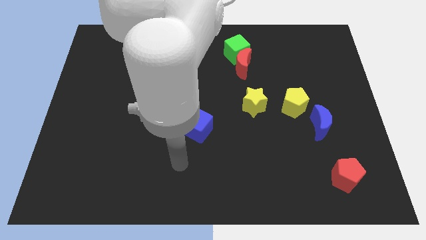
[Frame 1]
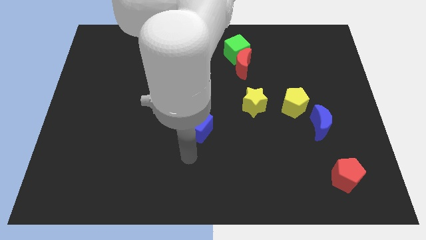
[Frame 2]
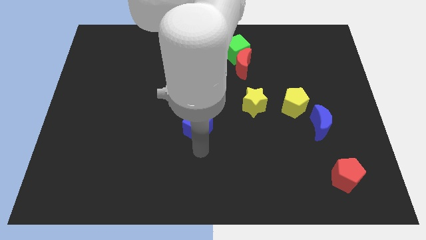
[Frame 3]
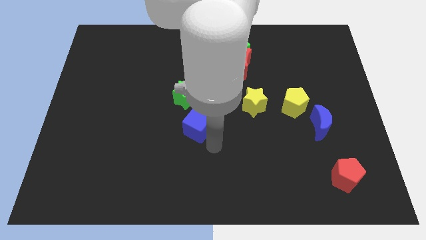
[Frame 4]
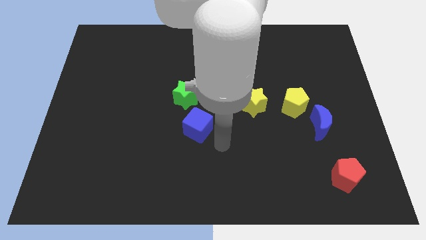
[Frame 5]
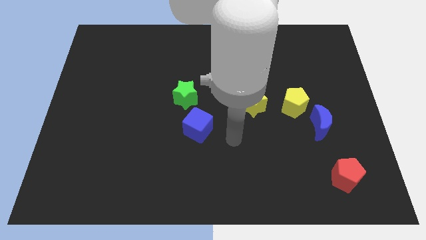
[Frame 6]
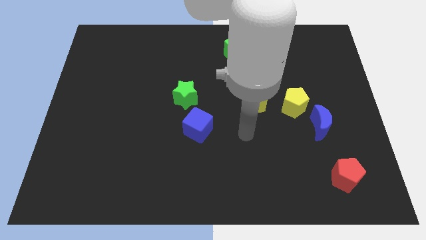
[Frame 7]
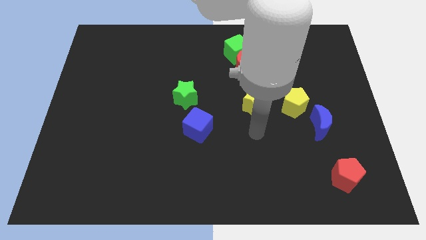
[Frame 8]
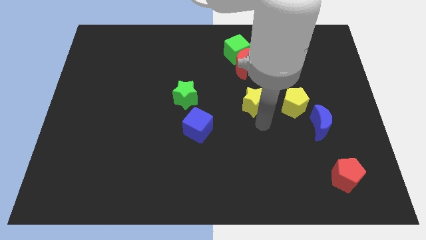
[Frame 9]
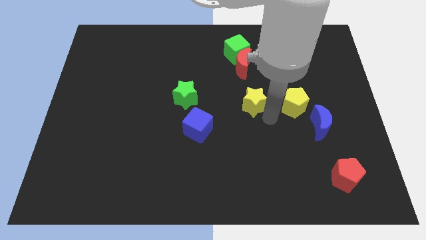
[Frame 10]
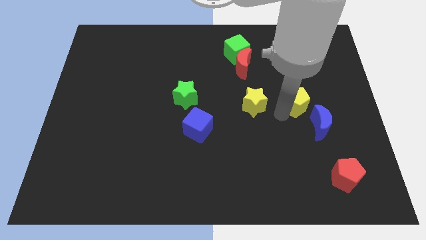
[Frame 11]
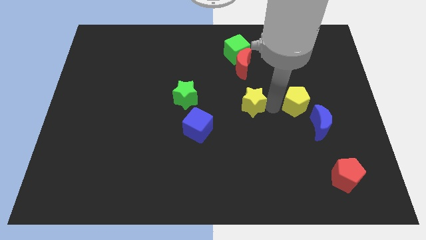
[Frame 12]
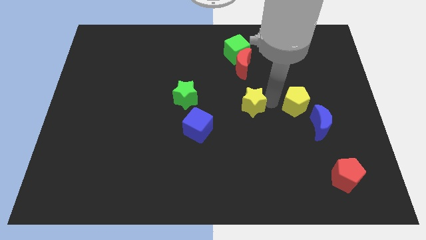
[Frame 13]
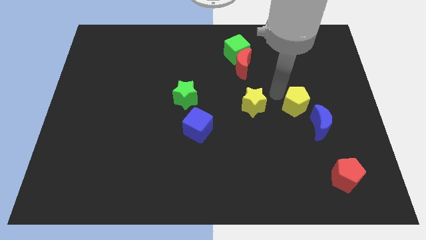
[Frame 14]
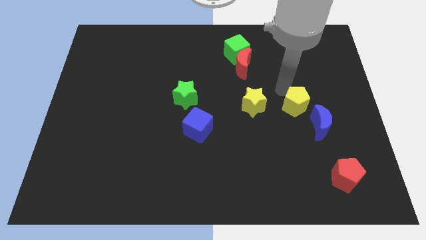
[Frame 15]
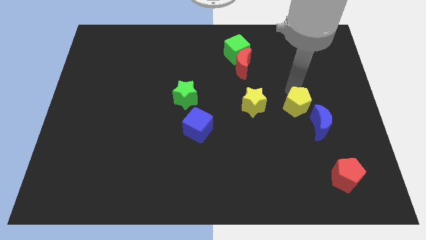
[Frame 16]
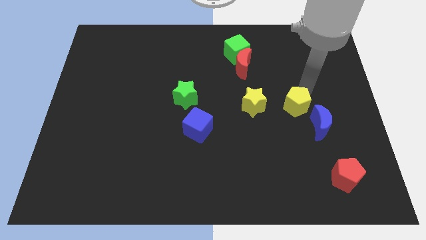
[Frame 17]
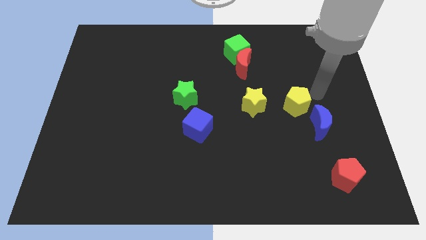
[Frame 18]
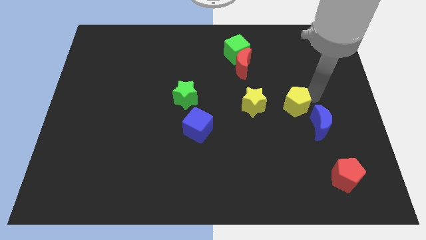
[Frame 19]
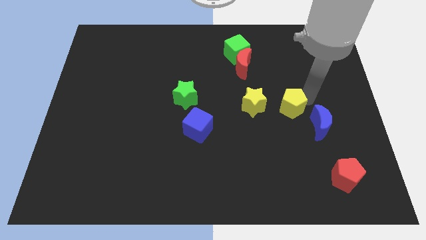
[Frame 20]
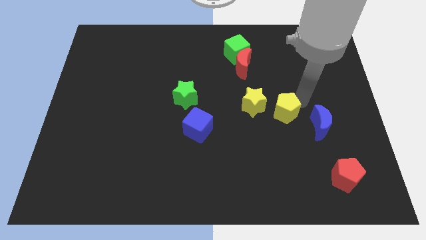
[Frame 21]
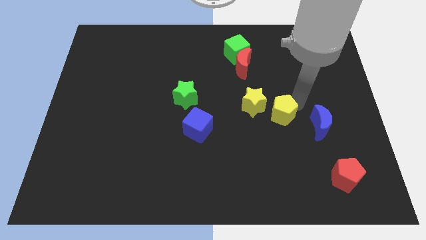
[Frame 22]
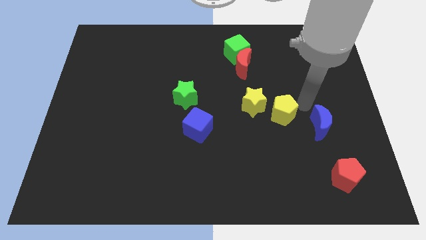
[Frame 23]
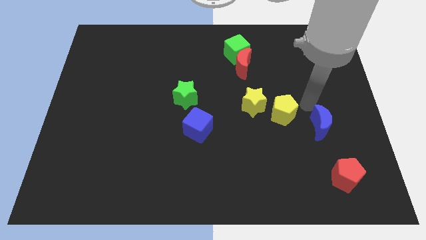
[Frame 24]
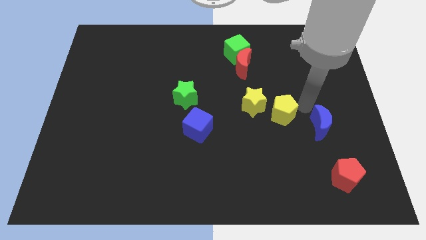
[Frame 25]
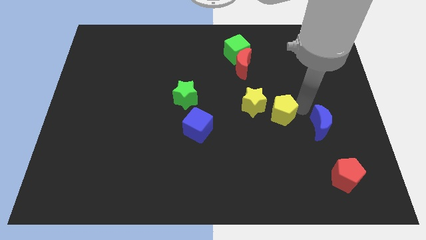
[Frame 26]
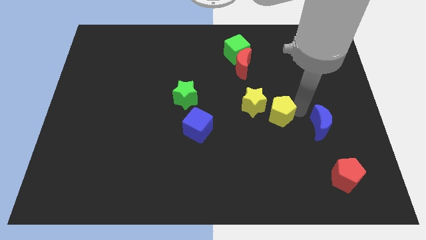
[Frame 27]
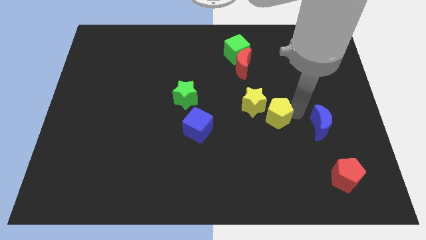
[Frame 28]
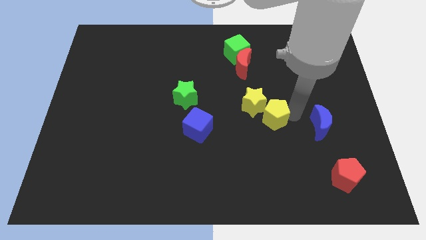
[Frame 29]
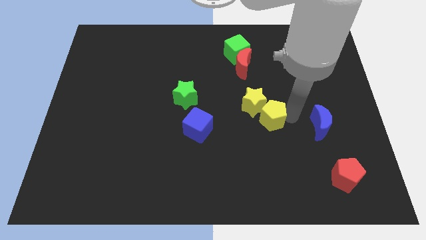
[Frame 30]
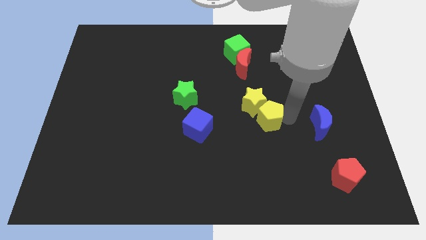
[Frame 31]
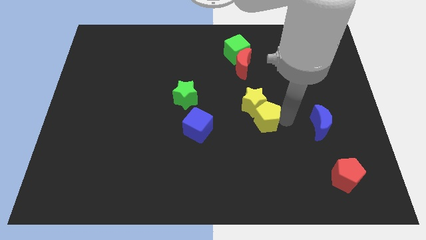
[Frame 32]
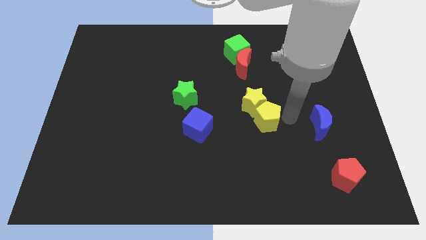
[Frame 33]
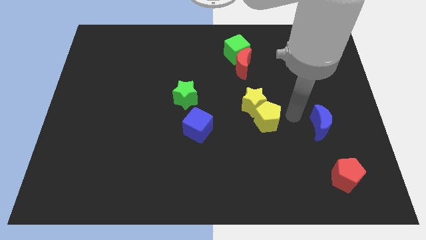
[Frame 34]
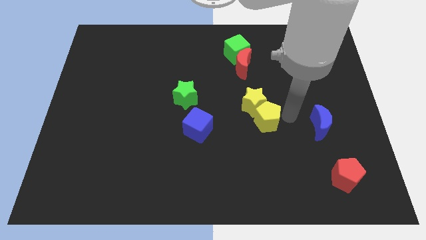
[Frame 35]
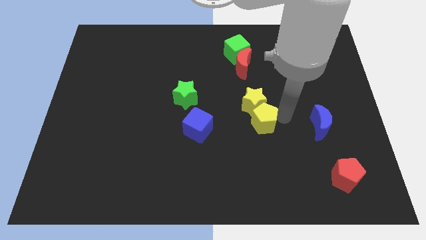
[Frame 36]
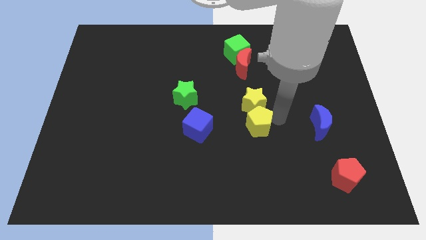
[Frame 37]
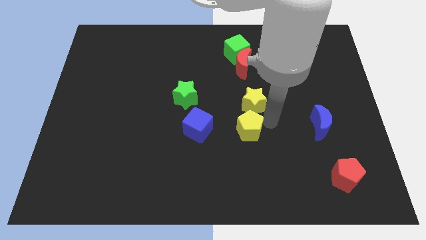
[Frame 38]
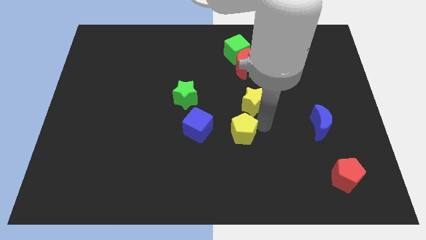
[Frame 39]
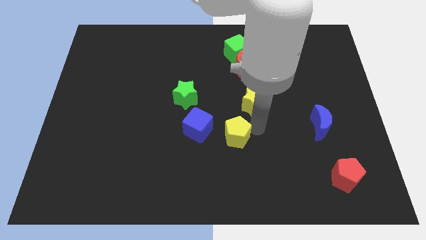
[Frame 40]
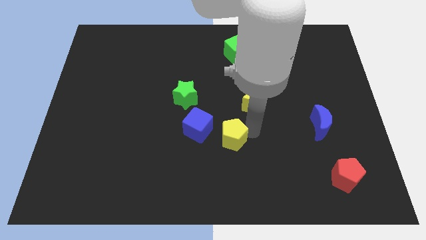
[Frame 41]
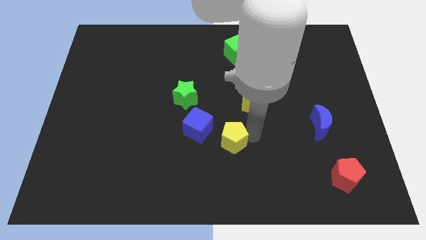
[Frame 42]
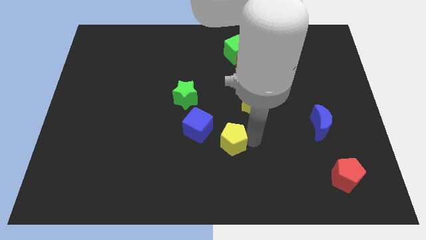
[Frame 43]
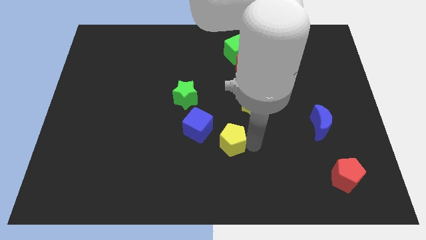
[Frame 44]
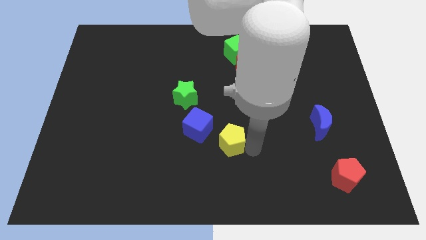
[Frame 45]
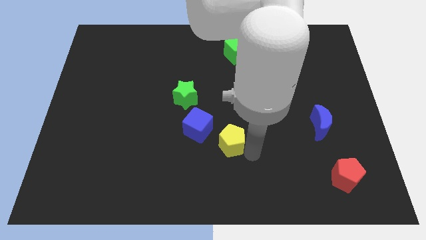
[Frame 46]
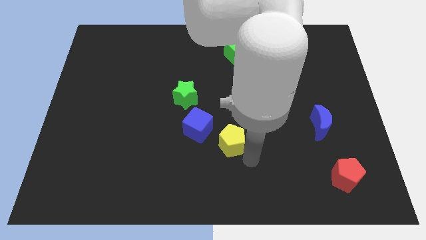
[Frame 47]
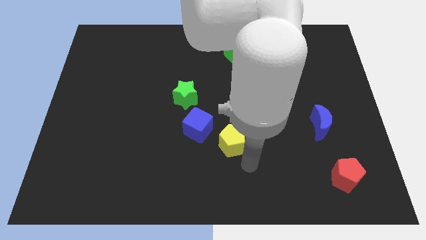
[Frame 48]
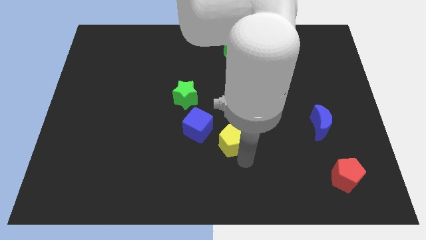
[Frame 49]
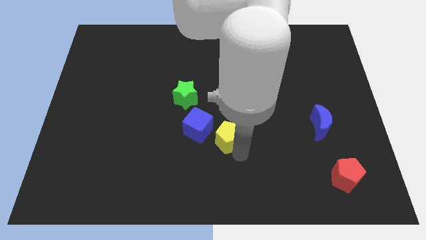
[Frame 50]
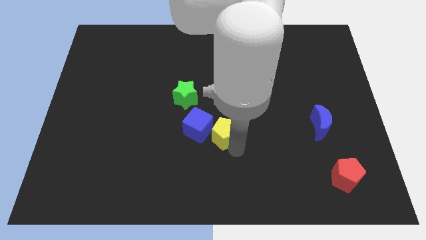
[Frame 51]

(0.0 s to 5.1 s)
move the yellow pentagon next to the blue cube

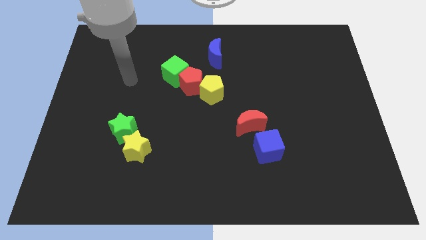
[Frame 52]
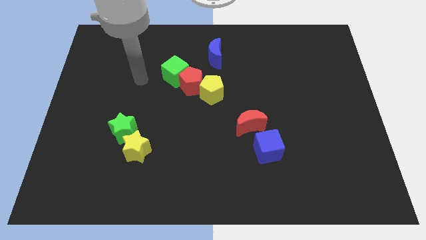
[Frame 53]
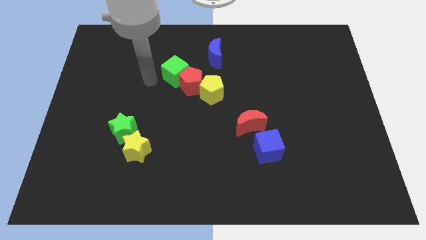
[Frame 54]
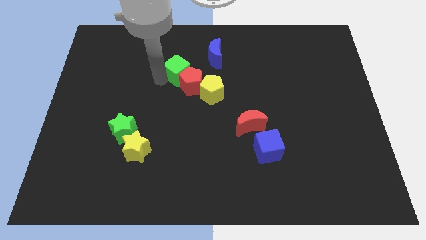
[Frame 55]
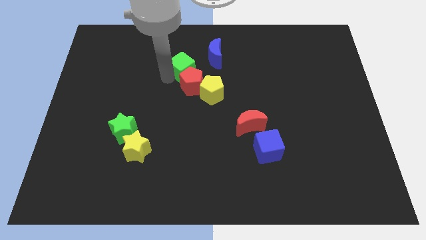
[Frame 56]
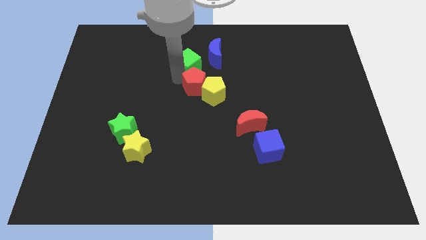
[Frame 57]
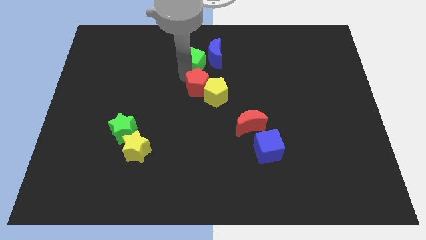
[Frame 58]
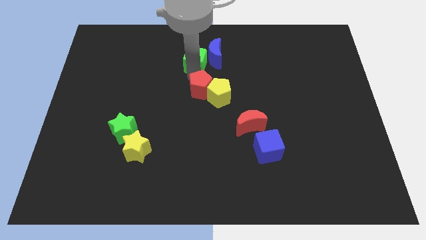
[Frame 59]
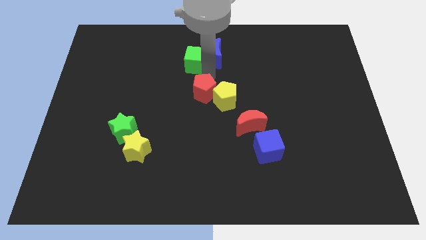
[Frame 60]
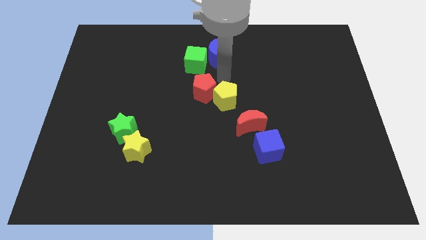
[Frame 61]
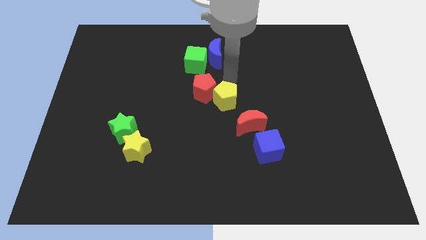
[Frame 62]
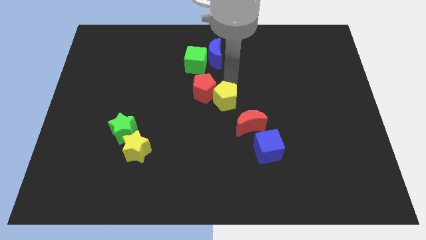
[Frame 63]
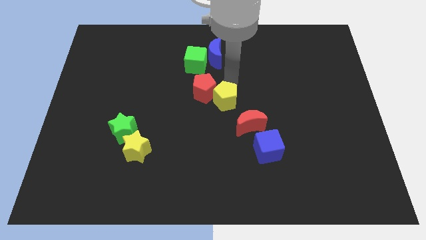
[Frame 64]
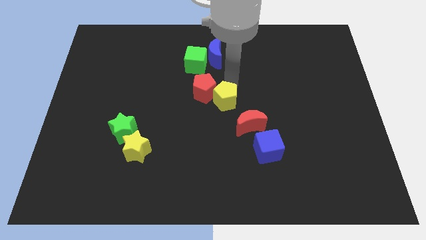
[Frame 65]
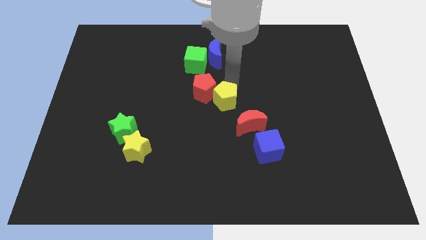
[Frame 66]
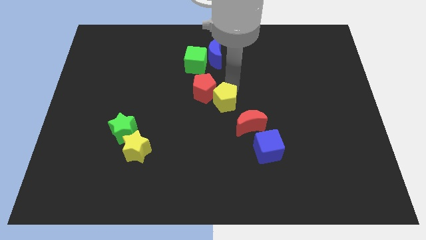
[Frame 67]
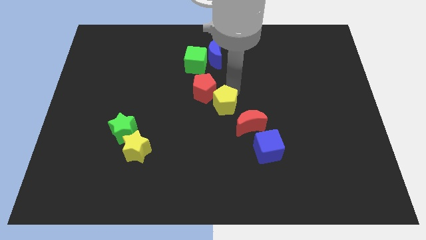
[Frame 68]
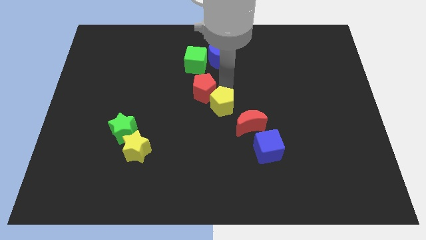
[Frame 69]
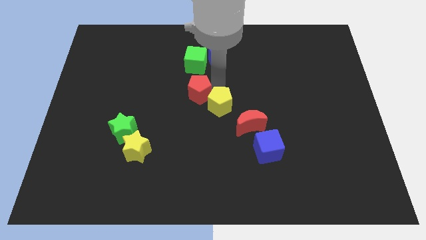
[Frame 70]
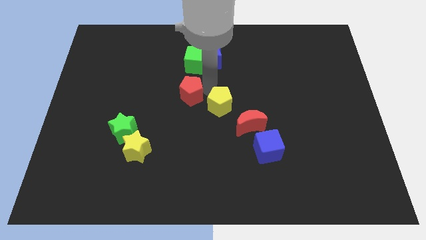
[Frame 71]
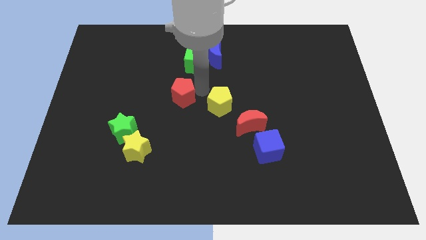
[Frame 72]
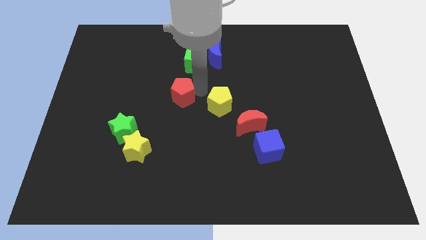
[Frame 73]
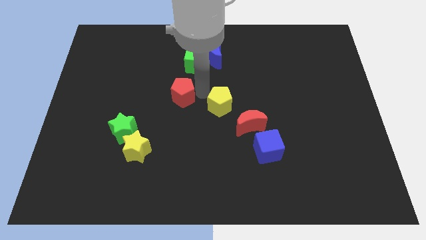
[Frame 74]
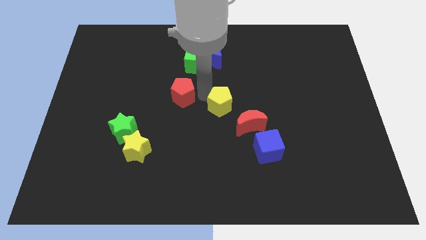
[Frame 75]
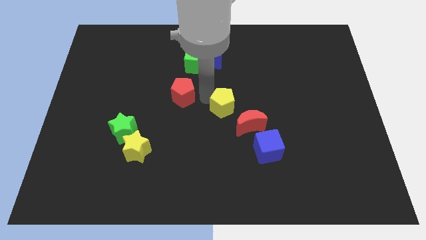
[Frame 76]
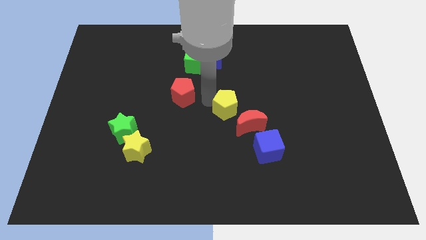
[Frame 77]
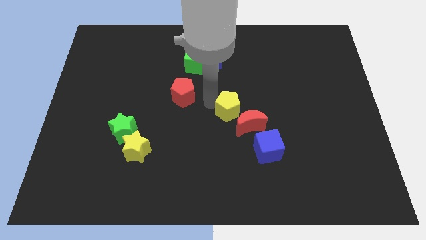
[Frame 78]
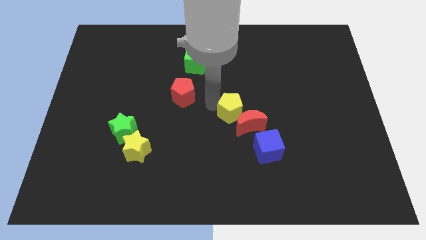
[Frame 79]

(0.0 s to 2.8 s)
move the yellow pentagon next to the red moon
